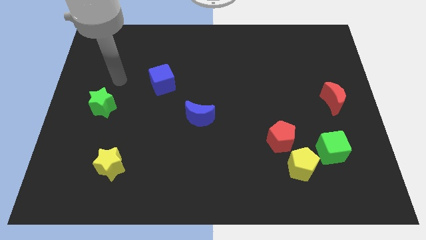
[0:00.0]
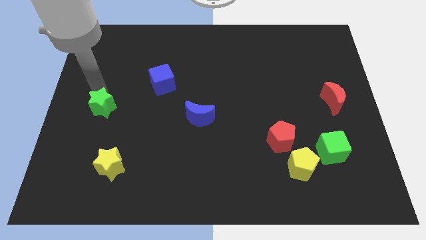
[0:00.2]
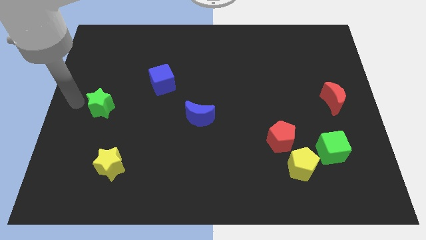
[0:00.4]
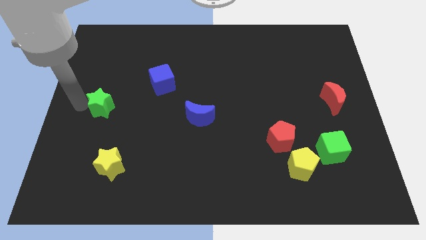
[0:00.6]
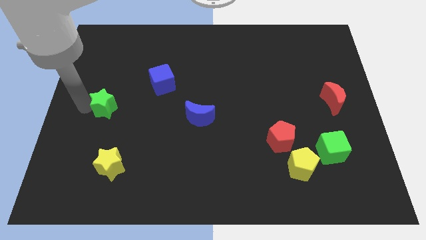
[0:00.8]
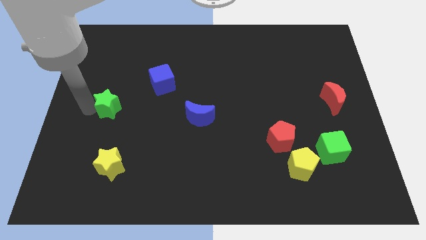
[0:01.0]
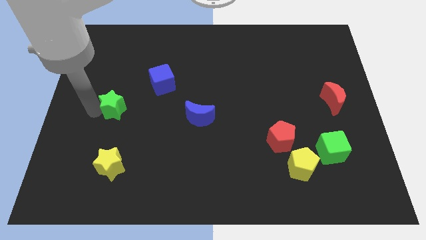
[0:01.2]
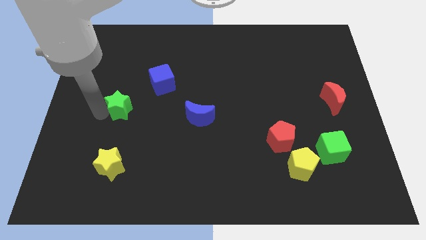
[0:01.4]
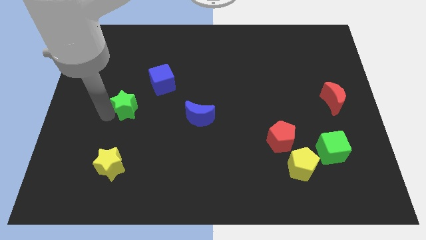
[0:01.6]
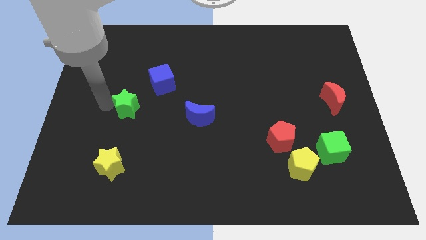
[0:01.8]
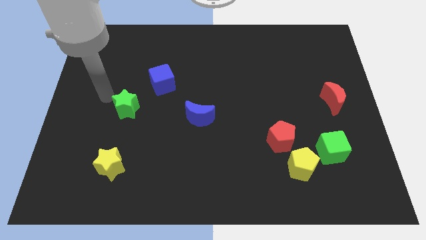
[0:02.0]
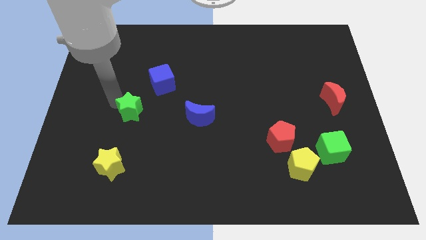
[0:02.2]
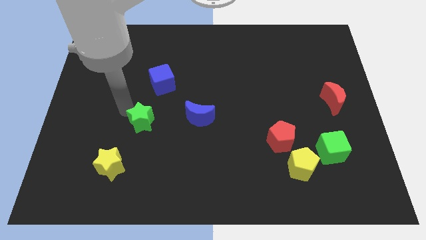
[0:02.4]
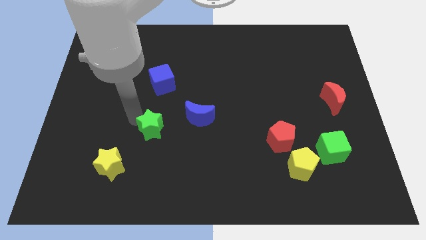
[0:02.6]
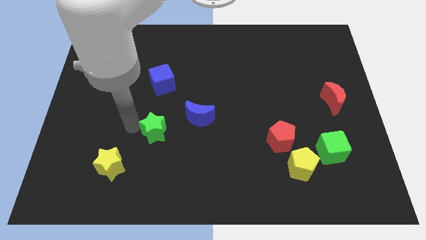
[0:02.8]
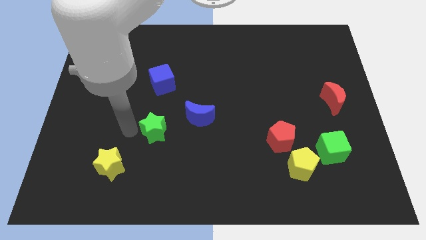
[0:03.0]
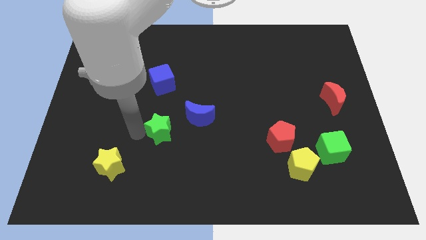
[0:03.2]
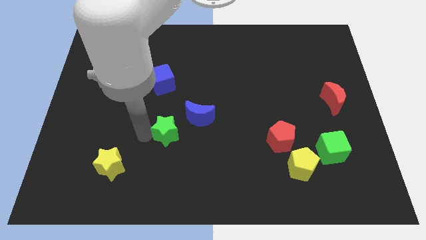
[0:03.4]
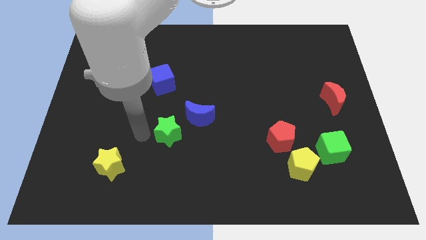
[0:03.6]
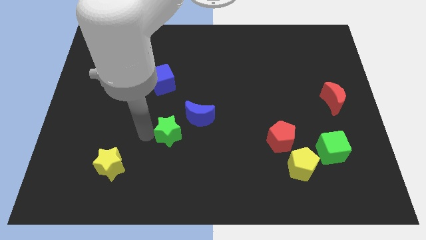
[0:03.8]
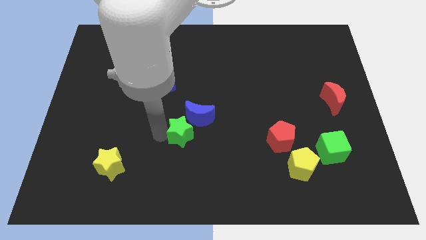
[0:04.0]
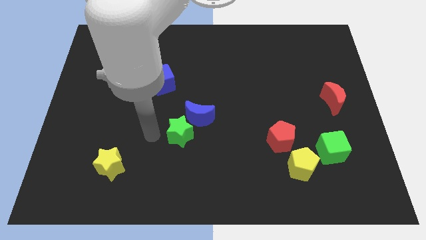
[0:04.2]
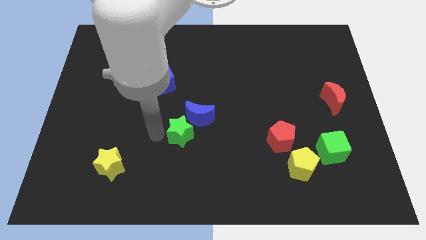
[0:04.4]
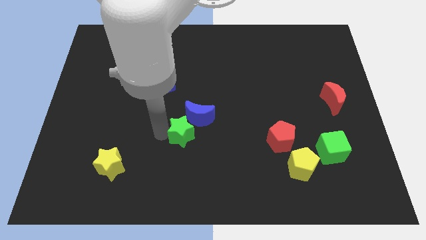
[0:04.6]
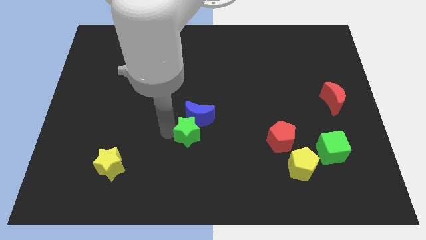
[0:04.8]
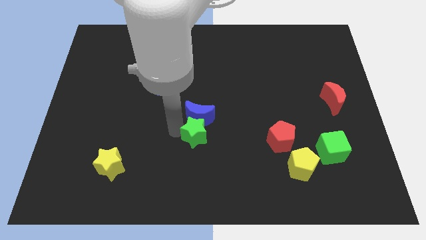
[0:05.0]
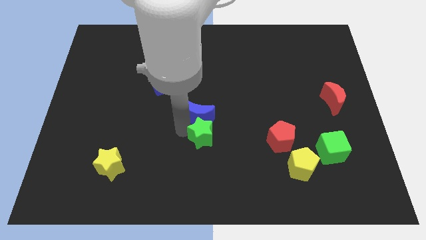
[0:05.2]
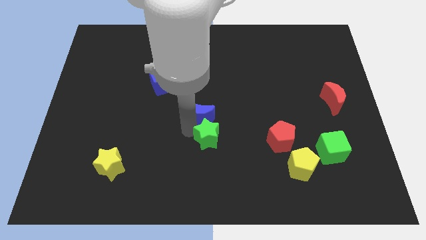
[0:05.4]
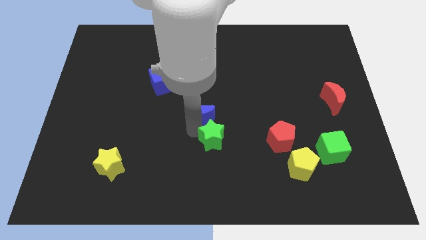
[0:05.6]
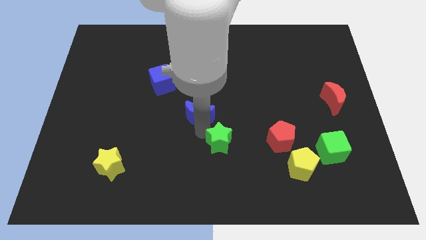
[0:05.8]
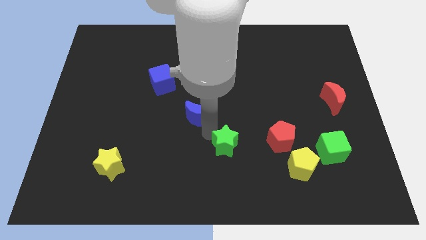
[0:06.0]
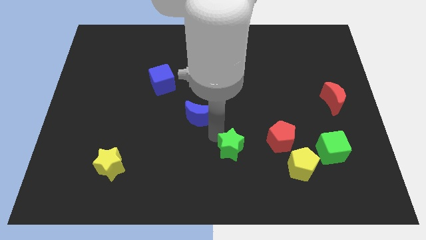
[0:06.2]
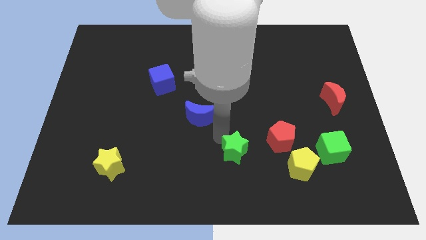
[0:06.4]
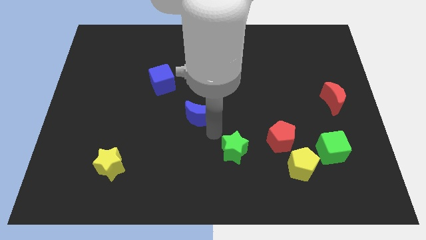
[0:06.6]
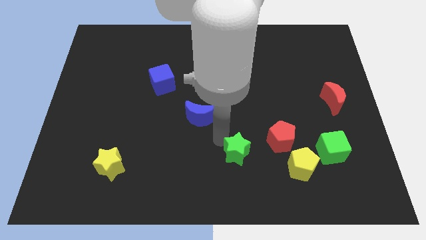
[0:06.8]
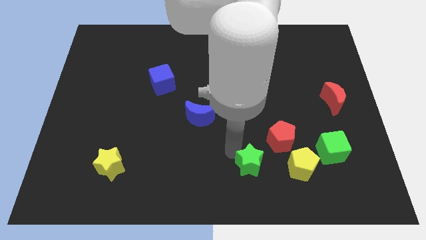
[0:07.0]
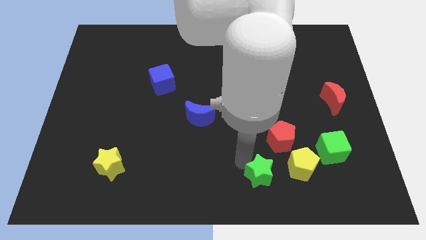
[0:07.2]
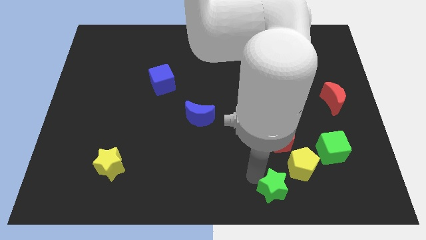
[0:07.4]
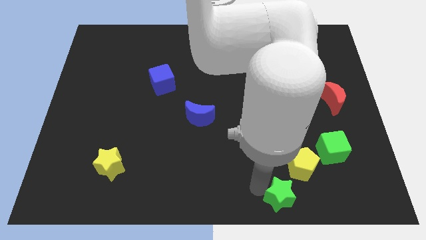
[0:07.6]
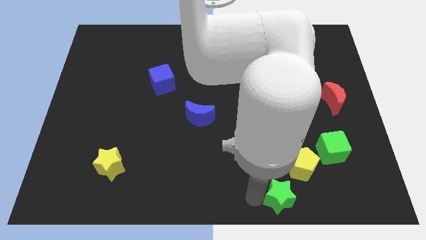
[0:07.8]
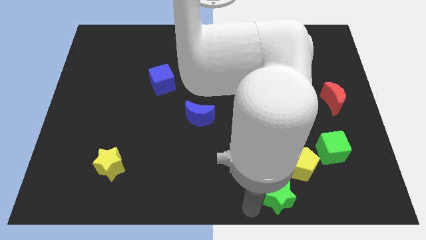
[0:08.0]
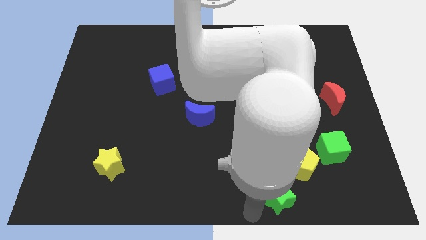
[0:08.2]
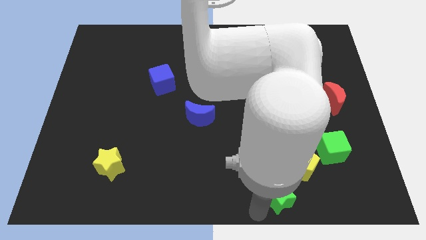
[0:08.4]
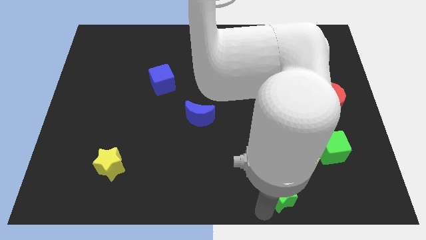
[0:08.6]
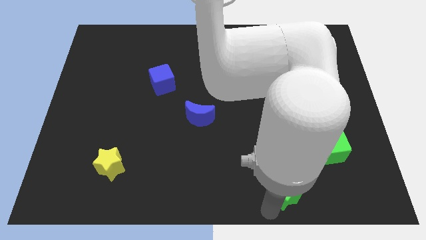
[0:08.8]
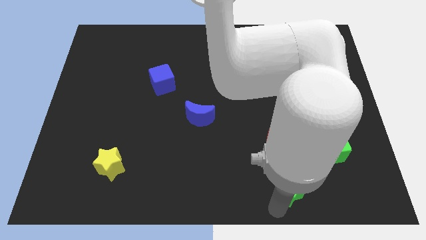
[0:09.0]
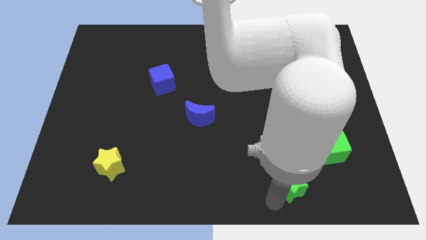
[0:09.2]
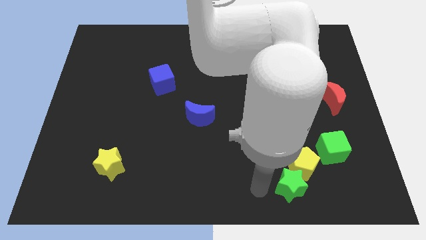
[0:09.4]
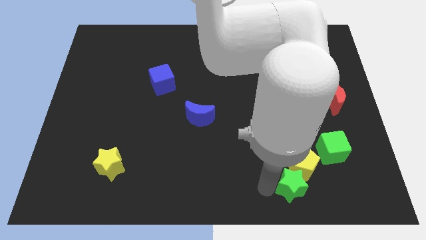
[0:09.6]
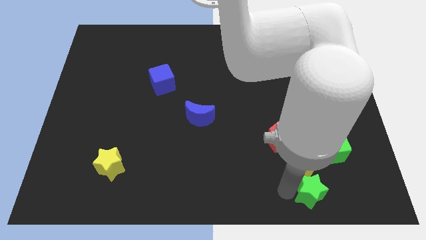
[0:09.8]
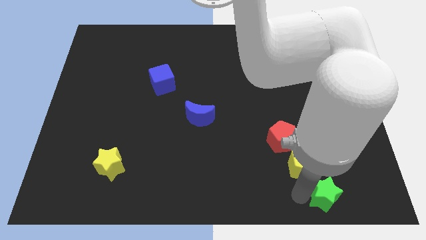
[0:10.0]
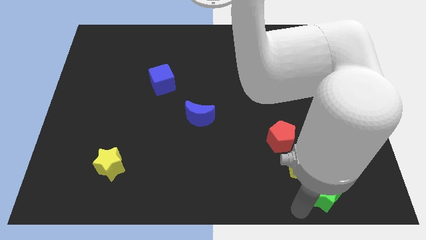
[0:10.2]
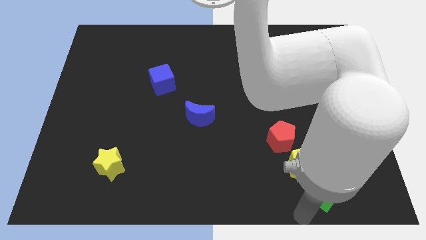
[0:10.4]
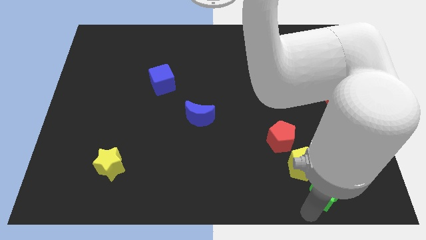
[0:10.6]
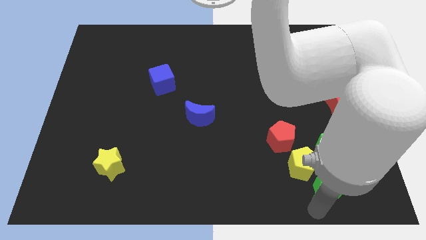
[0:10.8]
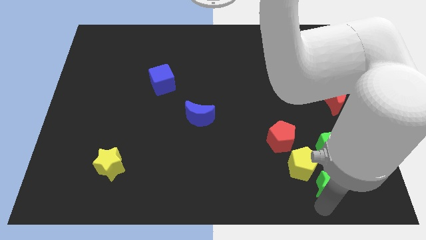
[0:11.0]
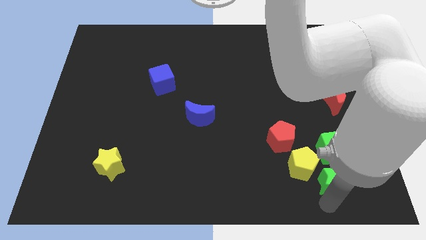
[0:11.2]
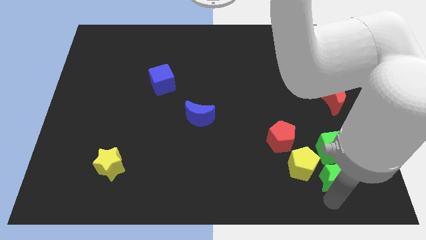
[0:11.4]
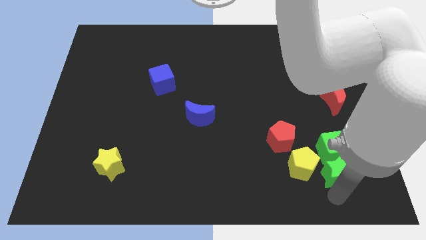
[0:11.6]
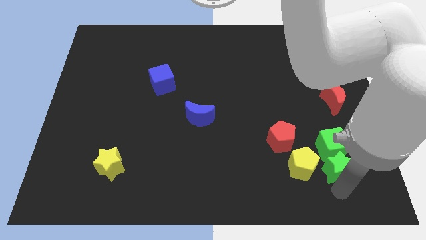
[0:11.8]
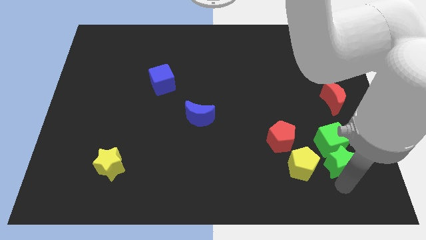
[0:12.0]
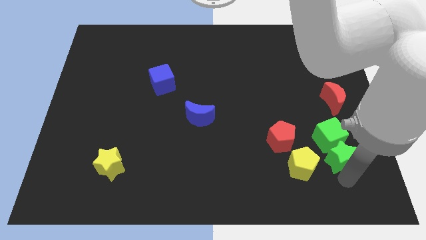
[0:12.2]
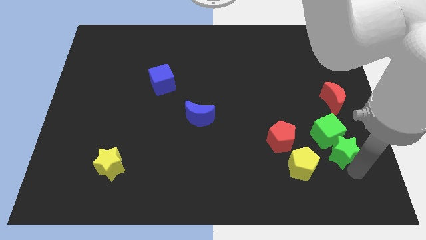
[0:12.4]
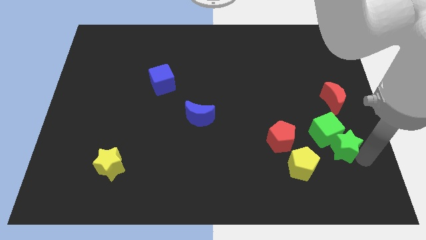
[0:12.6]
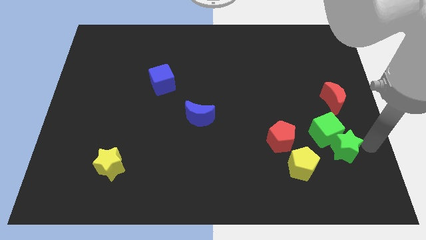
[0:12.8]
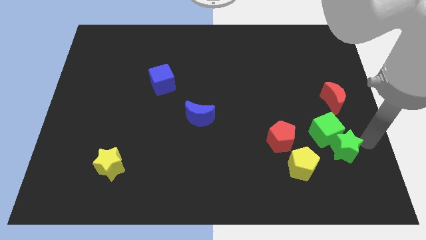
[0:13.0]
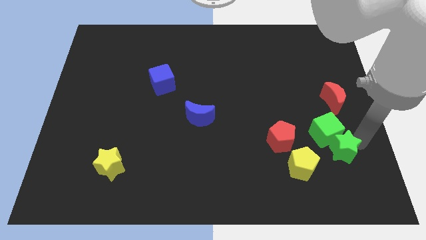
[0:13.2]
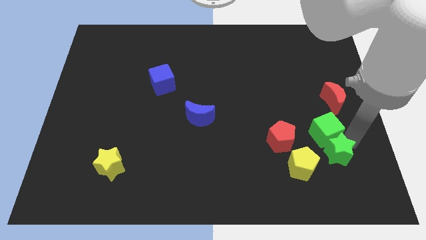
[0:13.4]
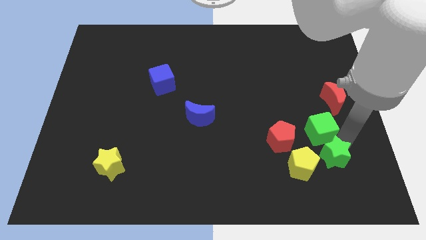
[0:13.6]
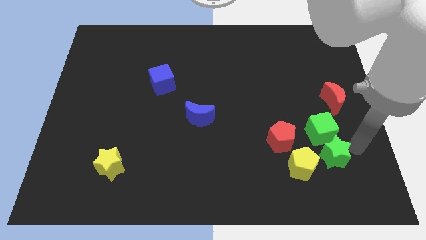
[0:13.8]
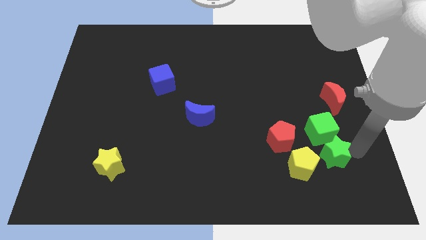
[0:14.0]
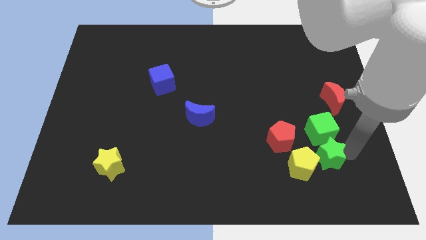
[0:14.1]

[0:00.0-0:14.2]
slide the green star to the bottom right of the red pentagon

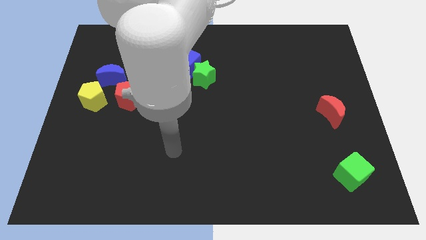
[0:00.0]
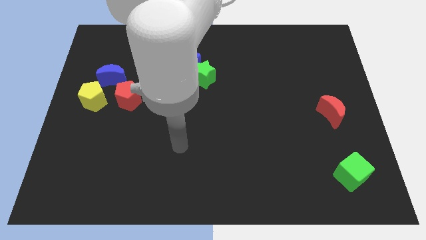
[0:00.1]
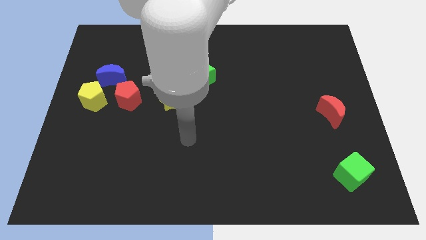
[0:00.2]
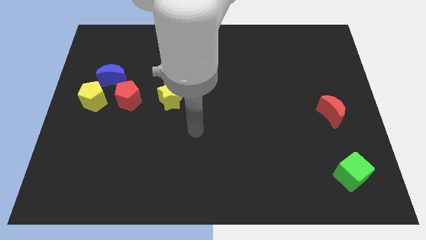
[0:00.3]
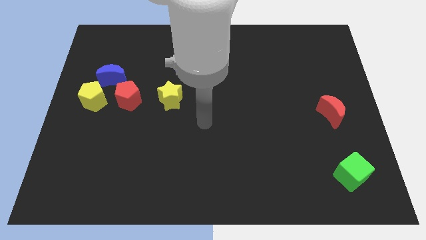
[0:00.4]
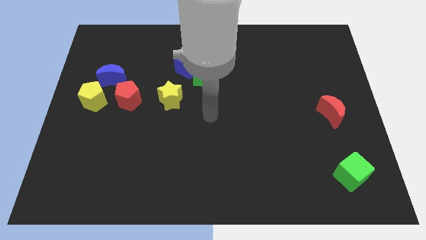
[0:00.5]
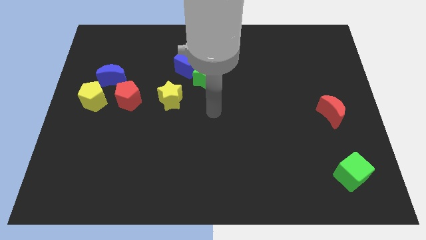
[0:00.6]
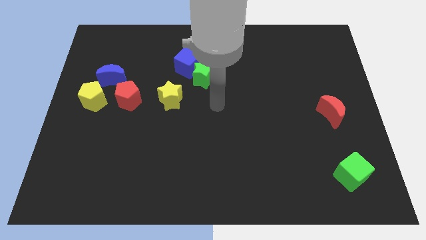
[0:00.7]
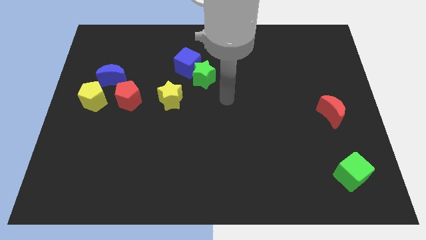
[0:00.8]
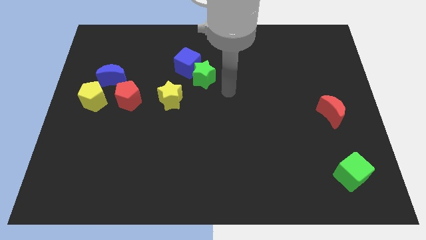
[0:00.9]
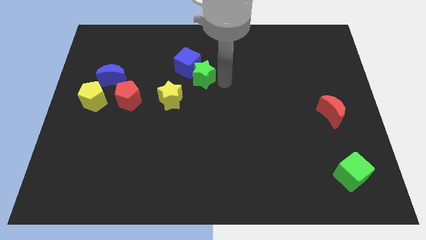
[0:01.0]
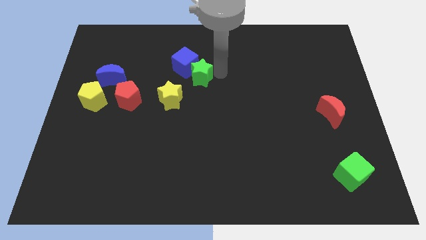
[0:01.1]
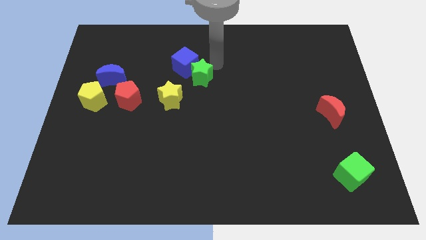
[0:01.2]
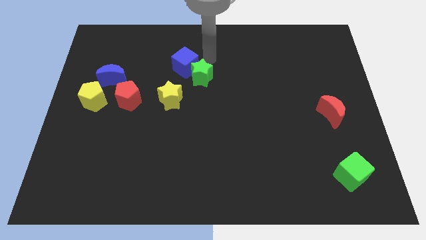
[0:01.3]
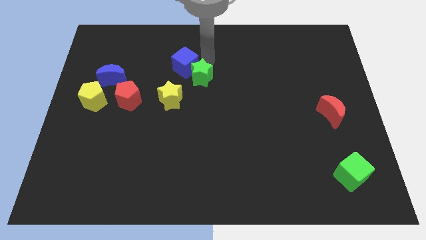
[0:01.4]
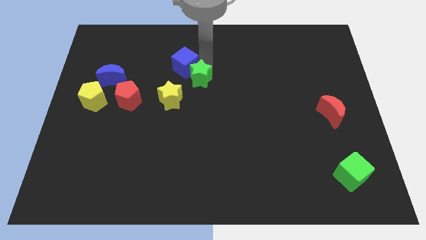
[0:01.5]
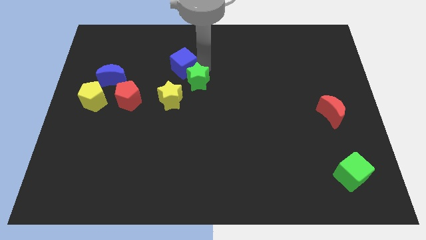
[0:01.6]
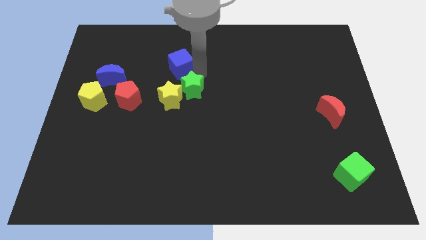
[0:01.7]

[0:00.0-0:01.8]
put the green star right of the red pentagon
